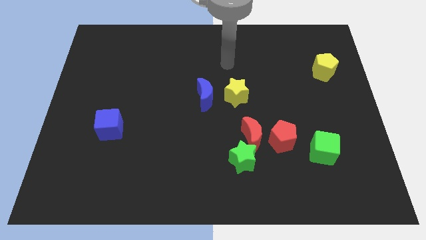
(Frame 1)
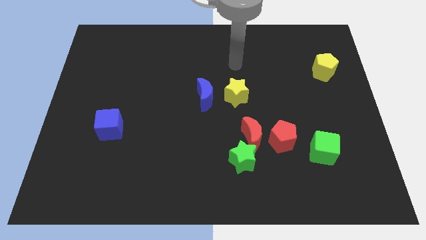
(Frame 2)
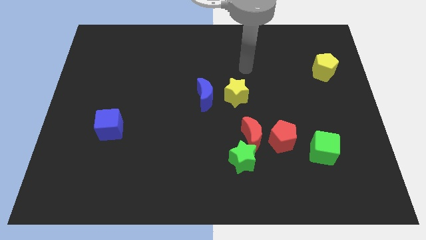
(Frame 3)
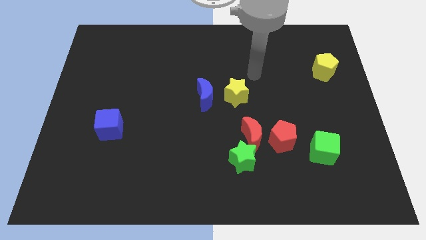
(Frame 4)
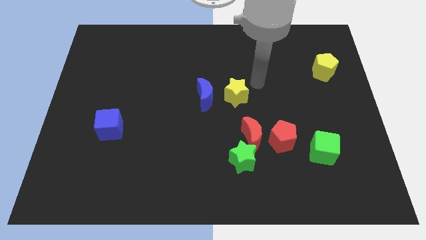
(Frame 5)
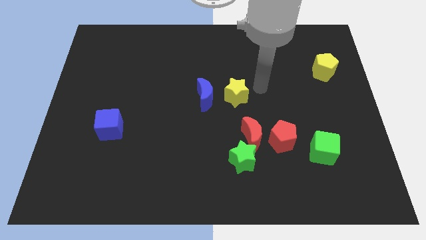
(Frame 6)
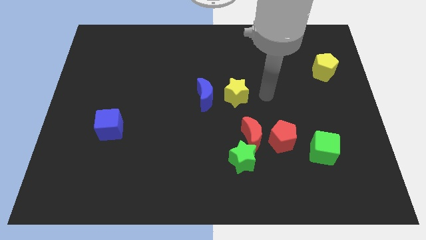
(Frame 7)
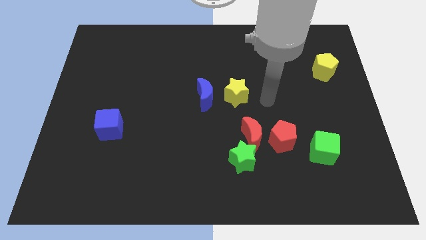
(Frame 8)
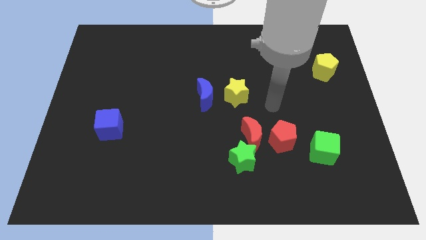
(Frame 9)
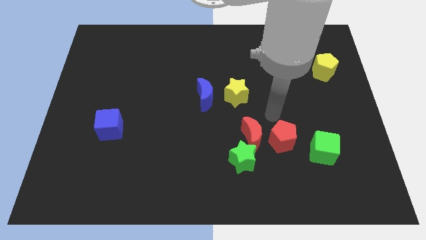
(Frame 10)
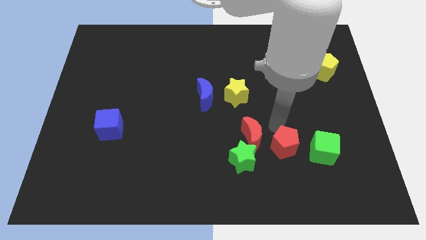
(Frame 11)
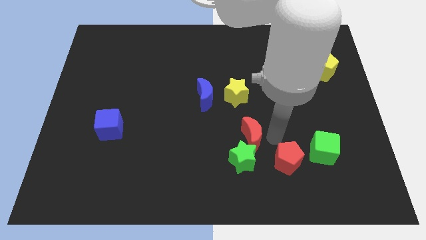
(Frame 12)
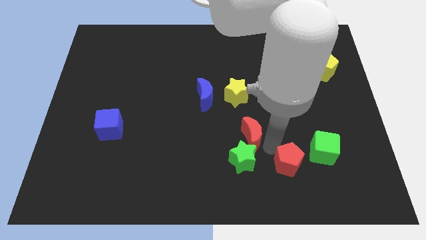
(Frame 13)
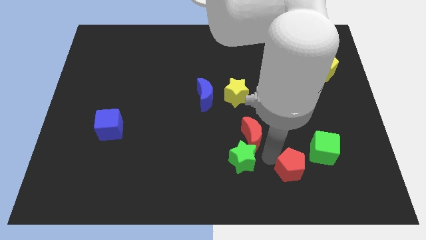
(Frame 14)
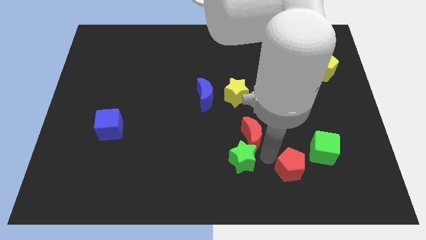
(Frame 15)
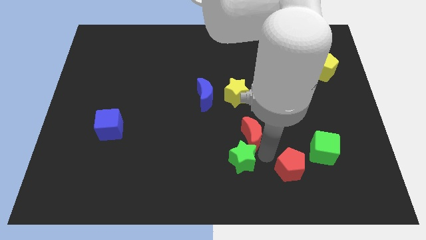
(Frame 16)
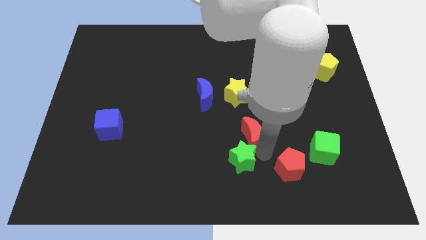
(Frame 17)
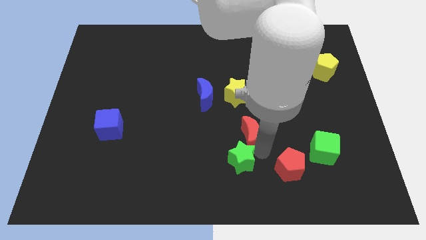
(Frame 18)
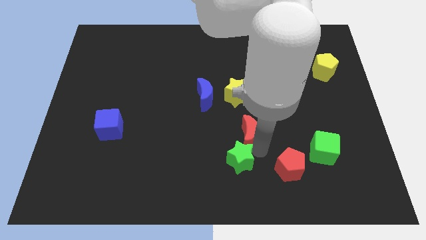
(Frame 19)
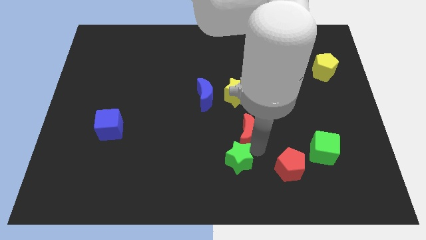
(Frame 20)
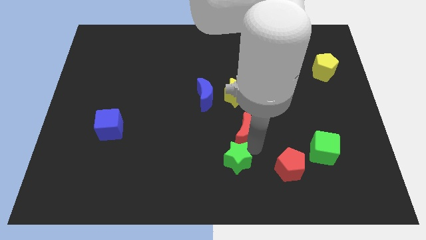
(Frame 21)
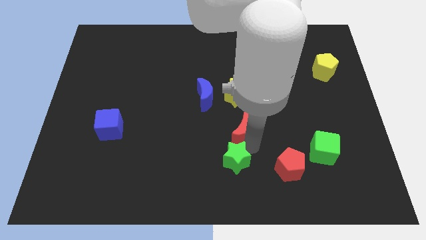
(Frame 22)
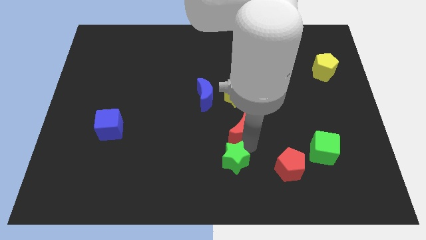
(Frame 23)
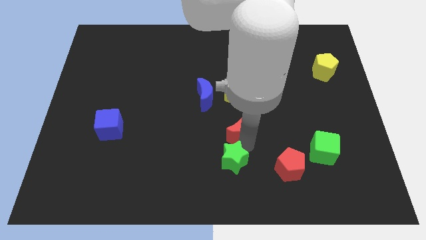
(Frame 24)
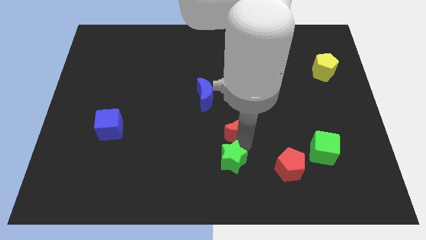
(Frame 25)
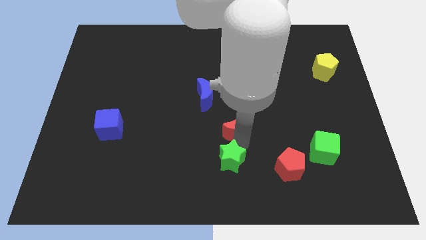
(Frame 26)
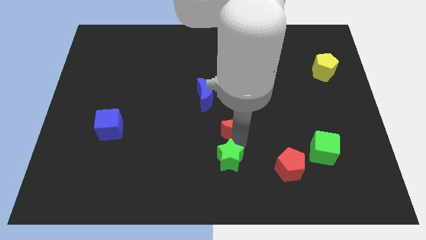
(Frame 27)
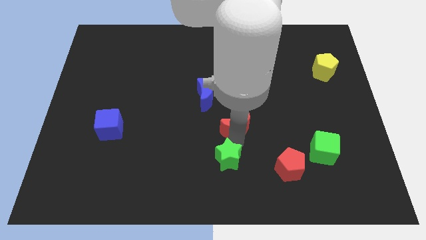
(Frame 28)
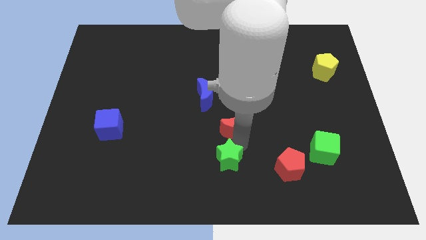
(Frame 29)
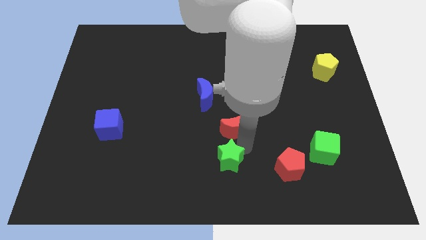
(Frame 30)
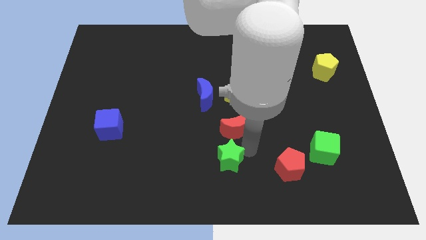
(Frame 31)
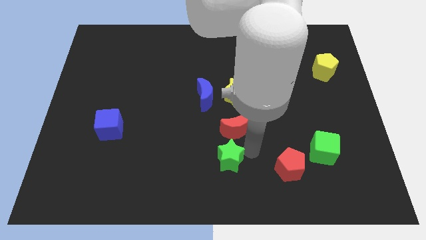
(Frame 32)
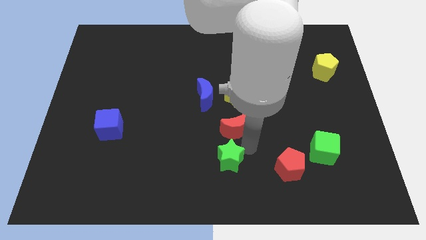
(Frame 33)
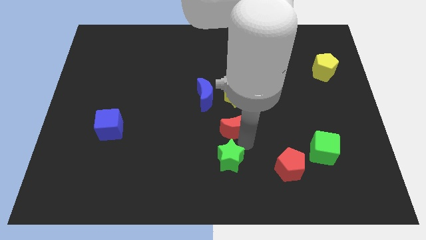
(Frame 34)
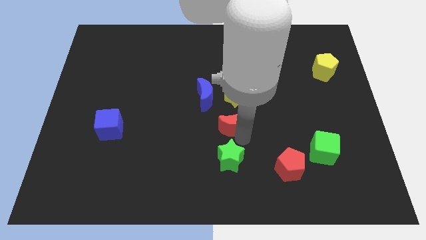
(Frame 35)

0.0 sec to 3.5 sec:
pull the red moon apart from the green star and red pentagon

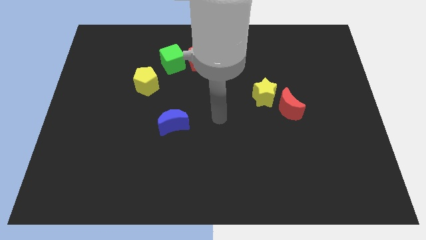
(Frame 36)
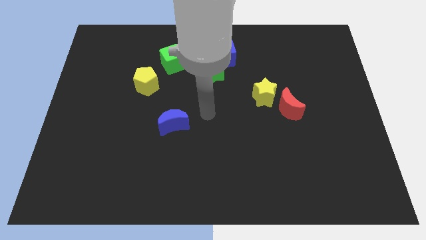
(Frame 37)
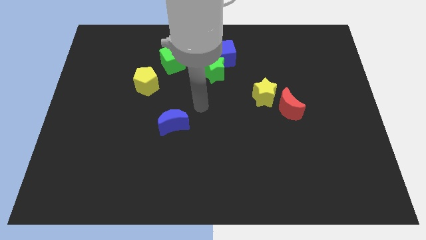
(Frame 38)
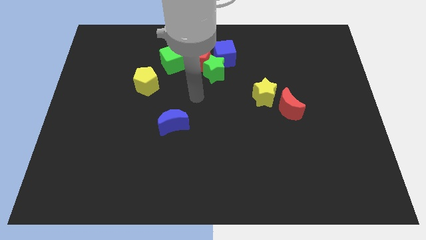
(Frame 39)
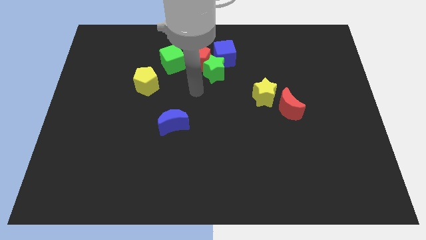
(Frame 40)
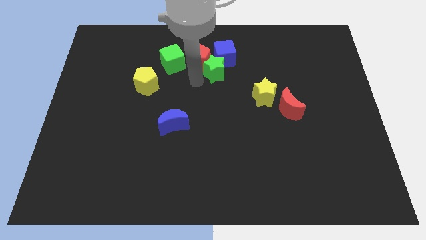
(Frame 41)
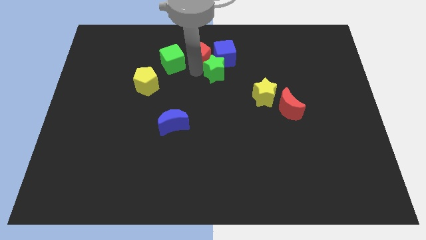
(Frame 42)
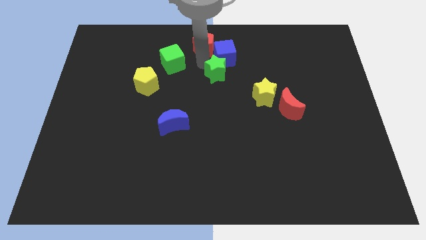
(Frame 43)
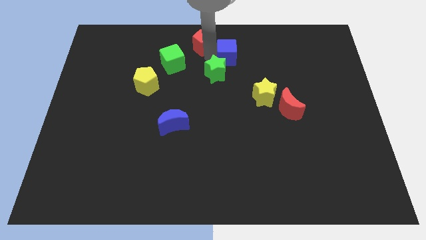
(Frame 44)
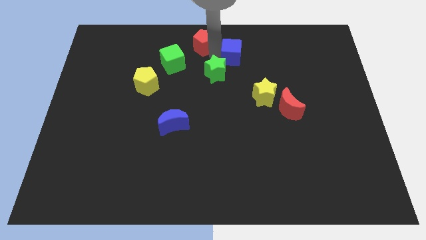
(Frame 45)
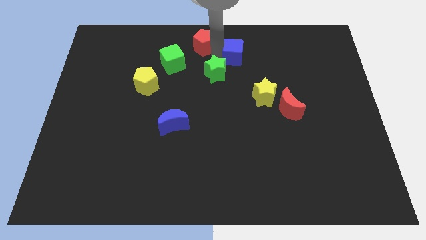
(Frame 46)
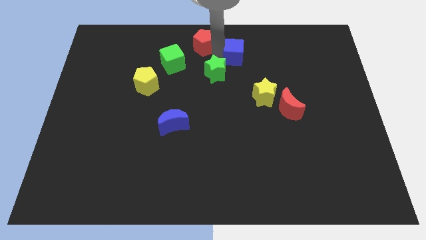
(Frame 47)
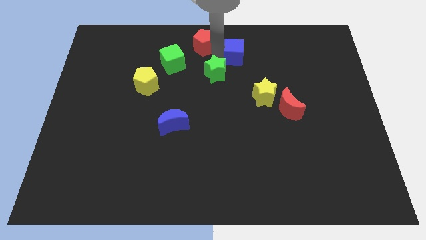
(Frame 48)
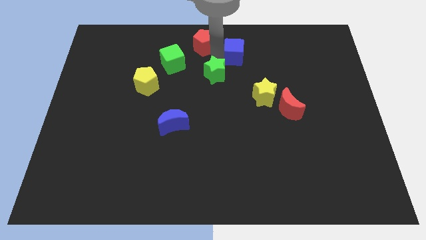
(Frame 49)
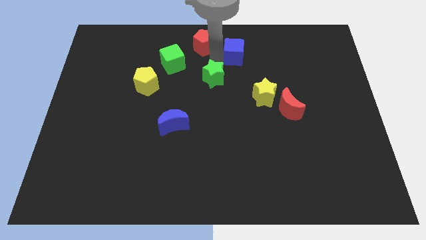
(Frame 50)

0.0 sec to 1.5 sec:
move the green star away from the red pentagon and blue cube

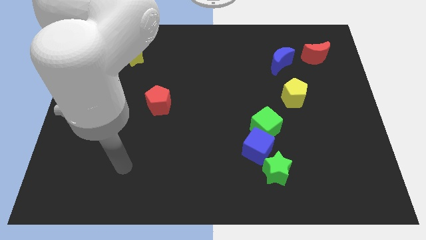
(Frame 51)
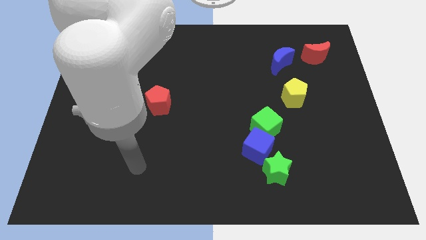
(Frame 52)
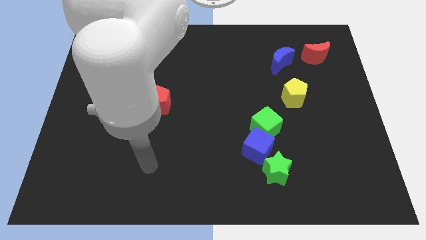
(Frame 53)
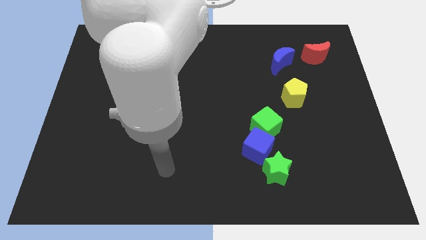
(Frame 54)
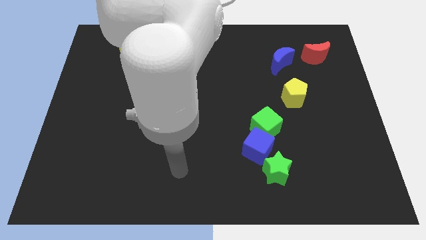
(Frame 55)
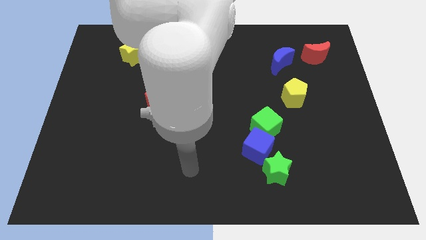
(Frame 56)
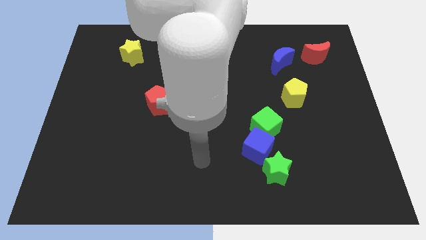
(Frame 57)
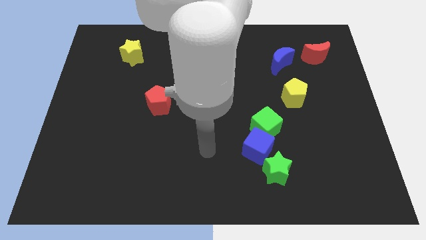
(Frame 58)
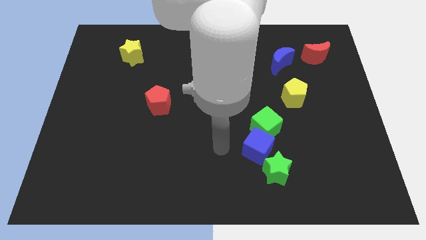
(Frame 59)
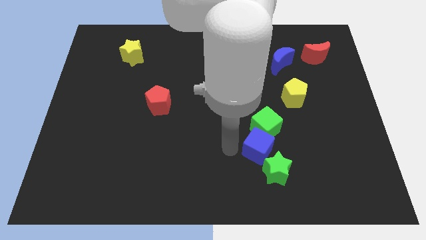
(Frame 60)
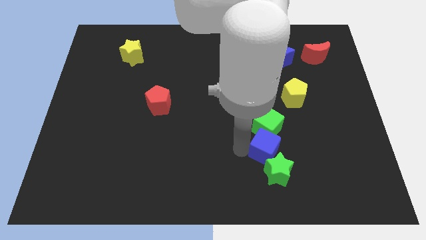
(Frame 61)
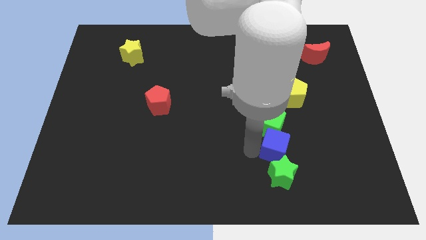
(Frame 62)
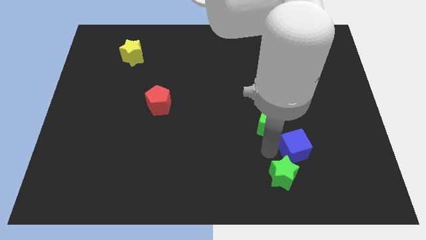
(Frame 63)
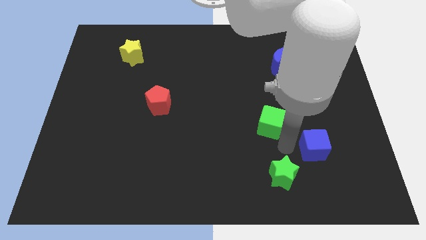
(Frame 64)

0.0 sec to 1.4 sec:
move the green cube away from the blue cube

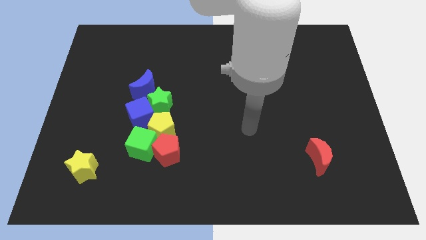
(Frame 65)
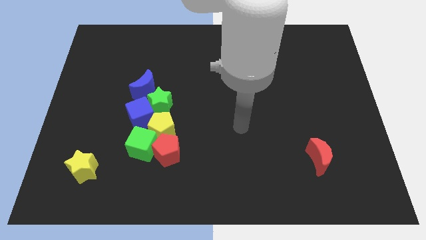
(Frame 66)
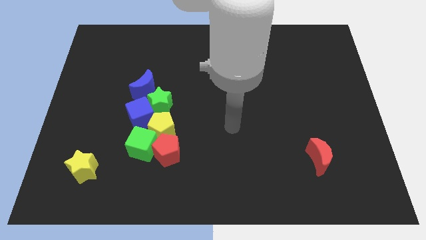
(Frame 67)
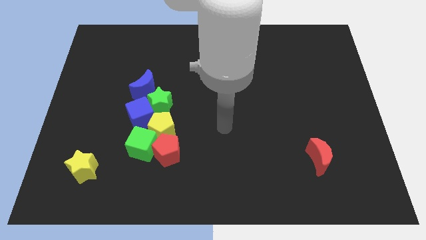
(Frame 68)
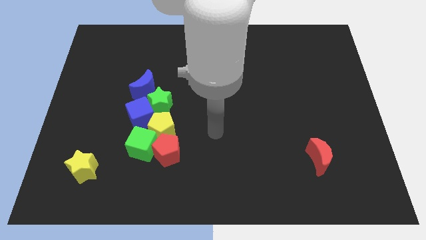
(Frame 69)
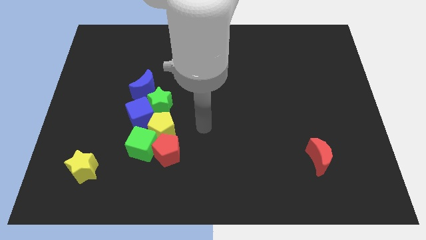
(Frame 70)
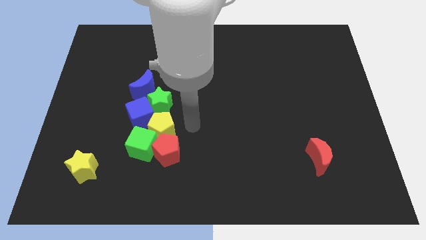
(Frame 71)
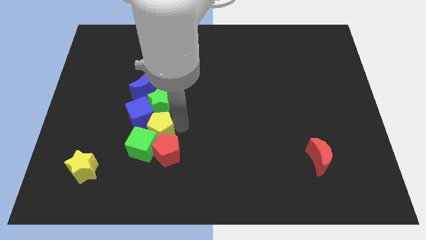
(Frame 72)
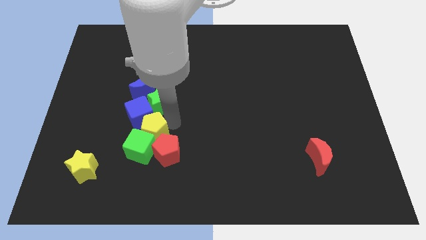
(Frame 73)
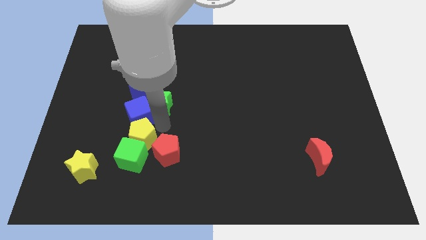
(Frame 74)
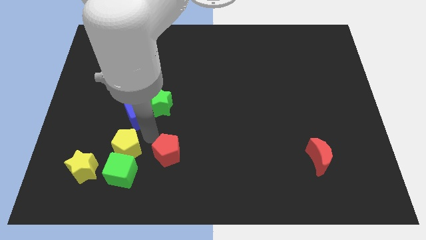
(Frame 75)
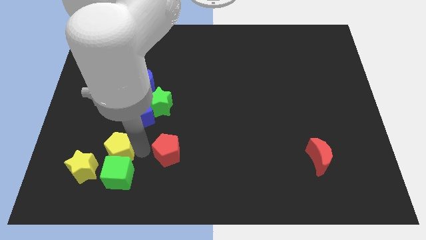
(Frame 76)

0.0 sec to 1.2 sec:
move the red pentagon away from the green cube and yellow pentagon

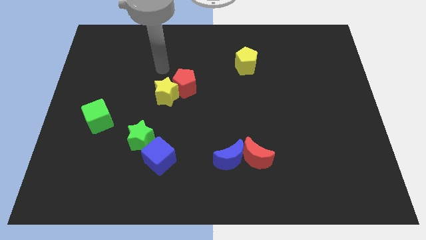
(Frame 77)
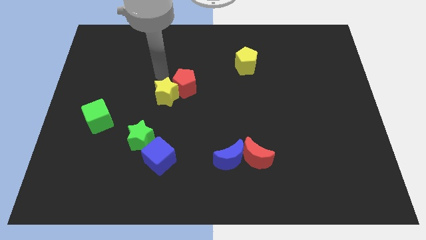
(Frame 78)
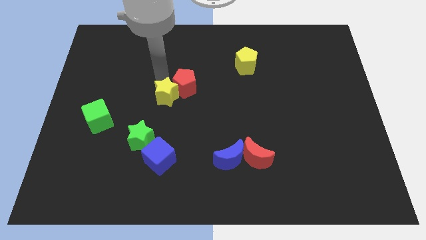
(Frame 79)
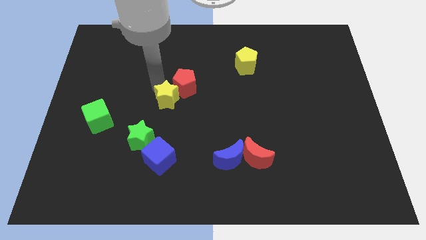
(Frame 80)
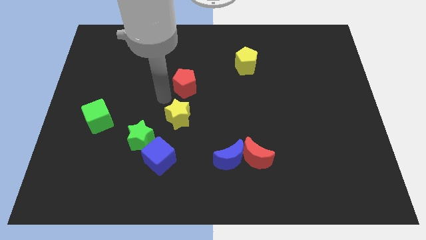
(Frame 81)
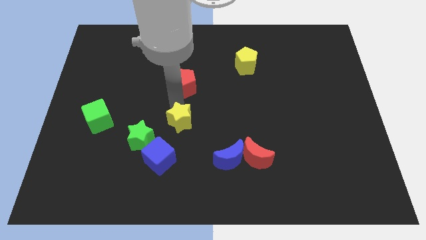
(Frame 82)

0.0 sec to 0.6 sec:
move the red pentagon away from the yellow star

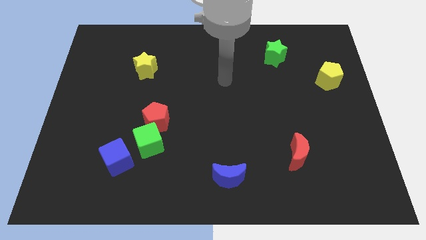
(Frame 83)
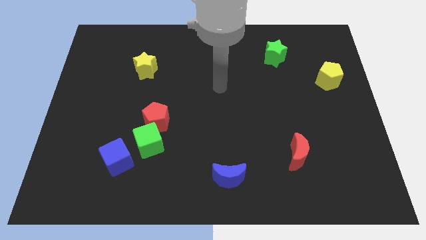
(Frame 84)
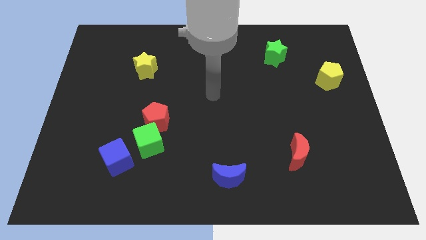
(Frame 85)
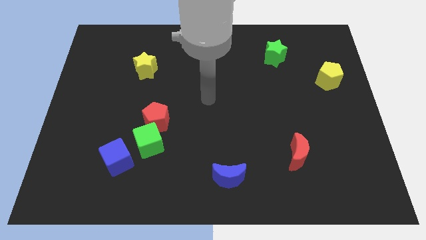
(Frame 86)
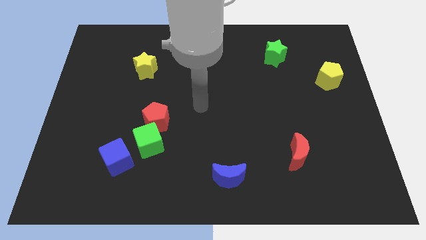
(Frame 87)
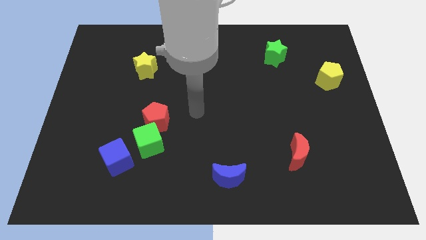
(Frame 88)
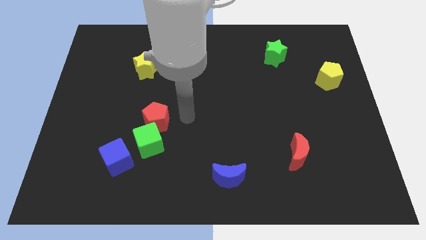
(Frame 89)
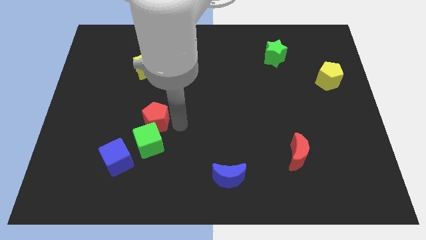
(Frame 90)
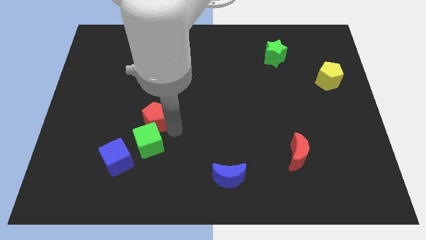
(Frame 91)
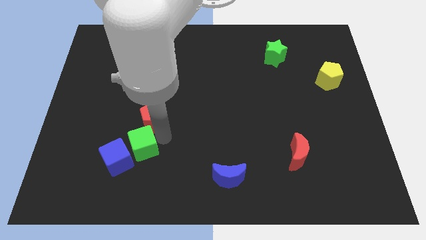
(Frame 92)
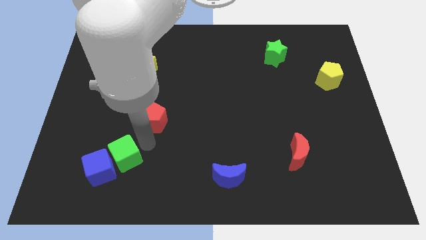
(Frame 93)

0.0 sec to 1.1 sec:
pull the red pentagon apart from the green cube
